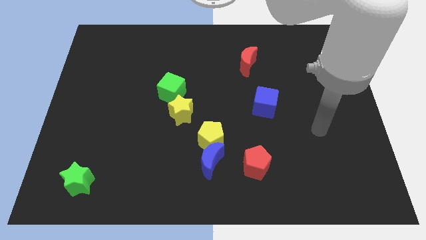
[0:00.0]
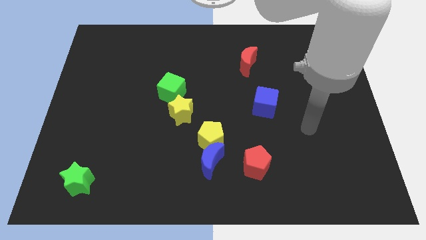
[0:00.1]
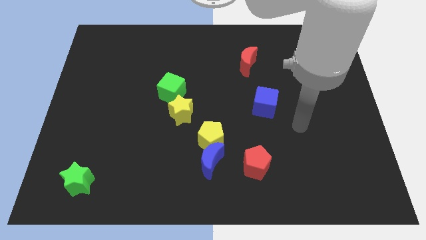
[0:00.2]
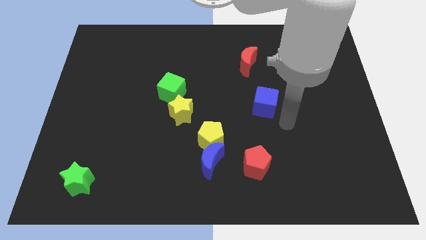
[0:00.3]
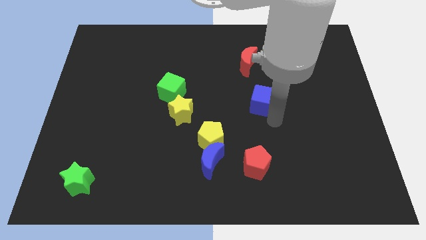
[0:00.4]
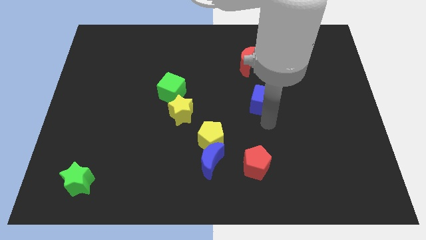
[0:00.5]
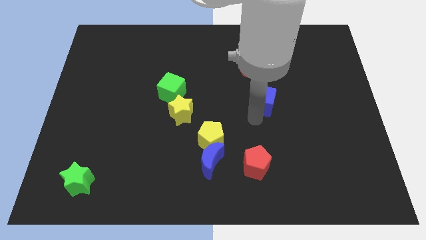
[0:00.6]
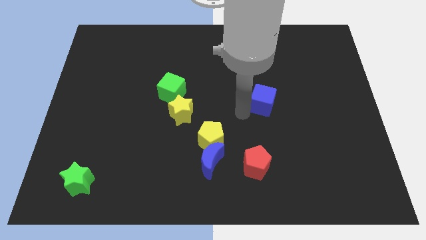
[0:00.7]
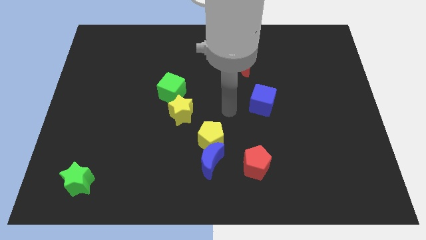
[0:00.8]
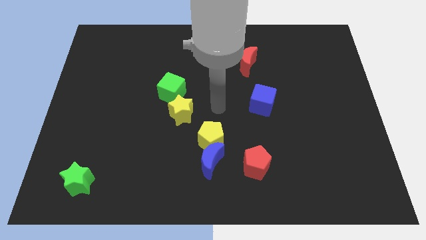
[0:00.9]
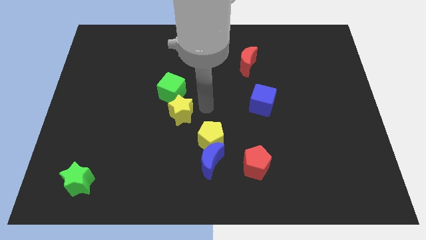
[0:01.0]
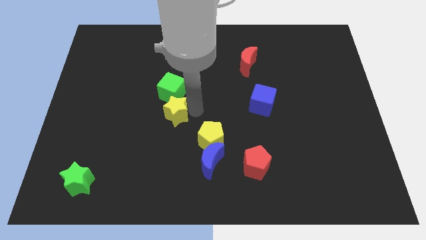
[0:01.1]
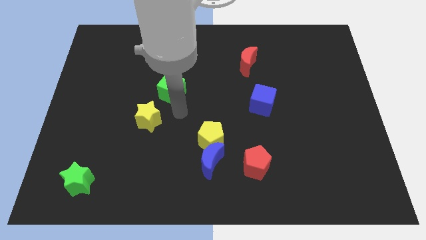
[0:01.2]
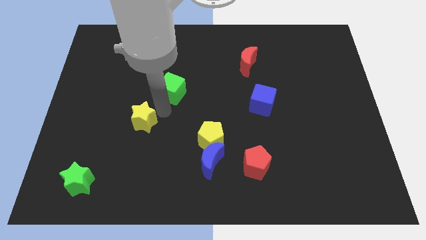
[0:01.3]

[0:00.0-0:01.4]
separate the green cube from the yellow star

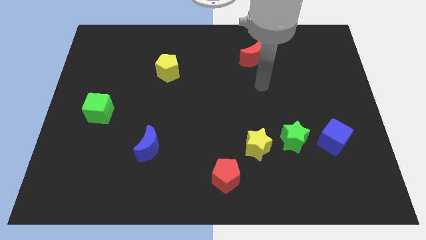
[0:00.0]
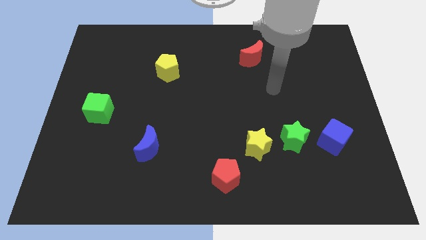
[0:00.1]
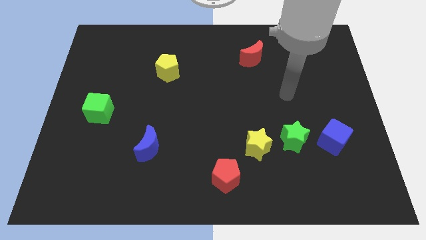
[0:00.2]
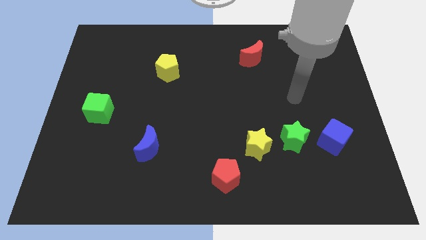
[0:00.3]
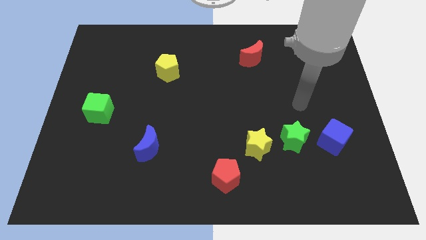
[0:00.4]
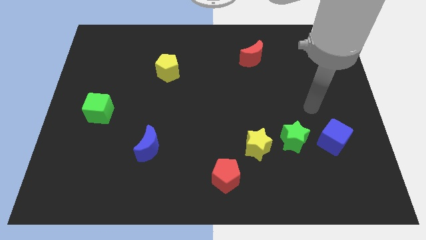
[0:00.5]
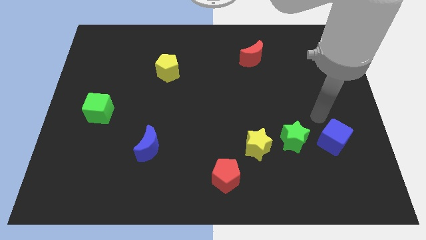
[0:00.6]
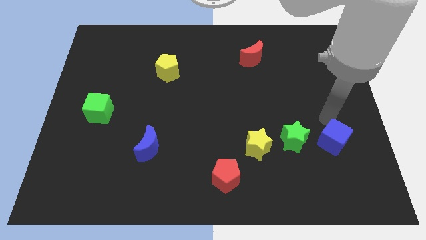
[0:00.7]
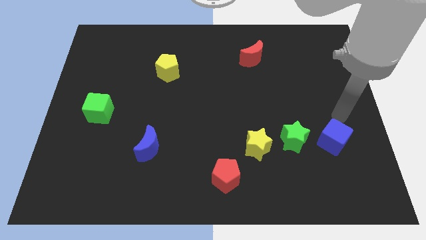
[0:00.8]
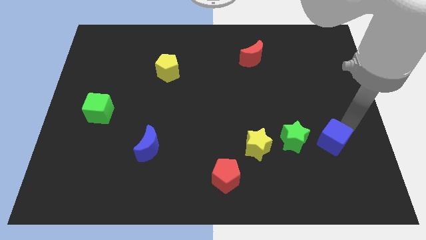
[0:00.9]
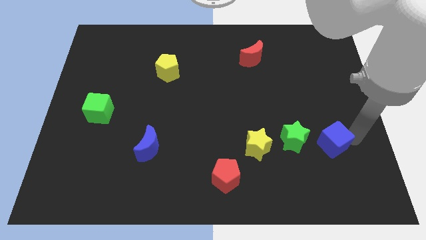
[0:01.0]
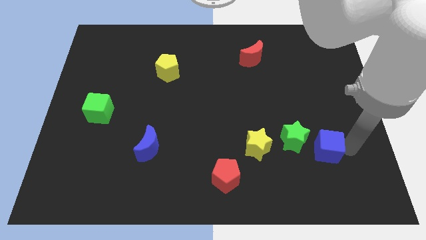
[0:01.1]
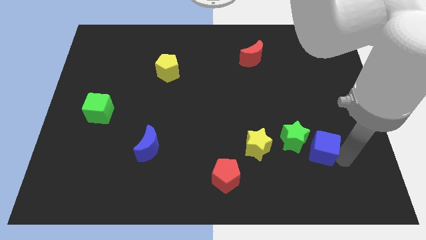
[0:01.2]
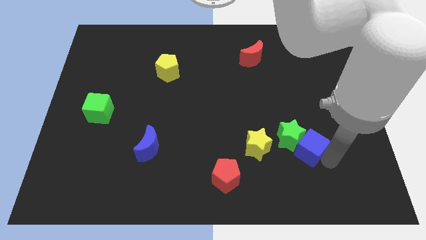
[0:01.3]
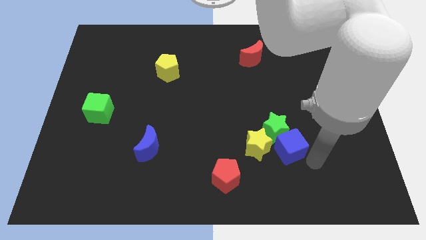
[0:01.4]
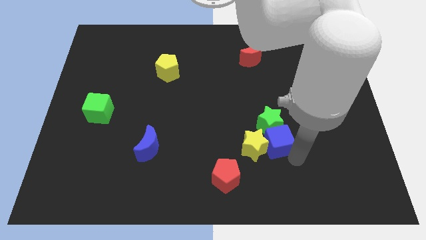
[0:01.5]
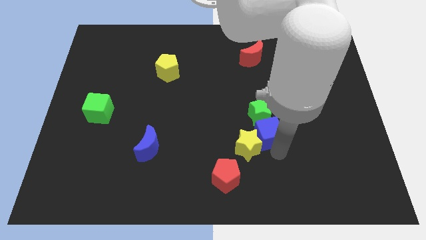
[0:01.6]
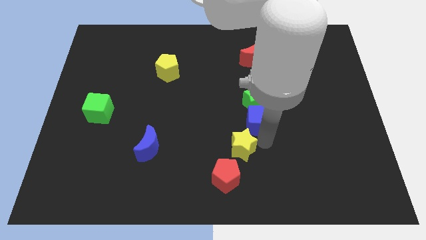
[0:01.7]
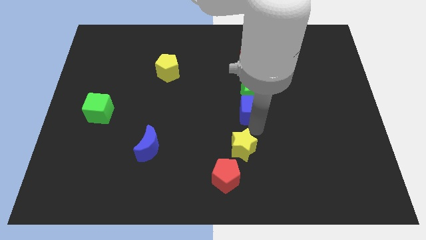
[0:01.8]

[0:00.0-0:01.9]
separate the green star from the yellow star and blue cube

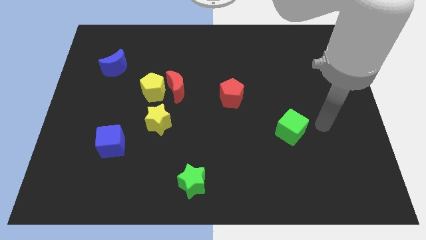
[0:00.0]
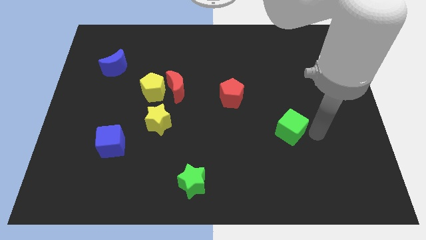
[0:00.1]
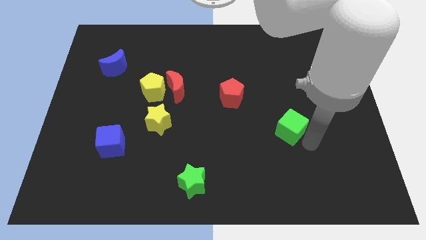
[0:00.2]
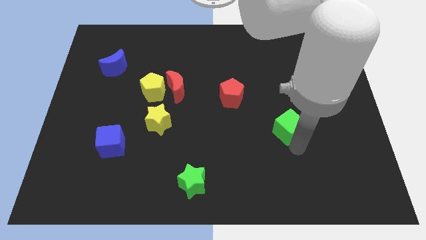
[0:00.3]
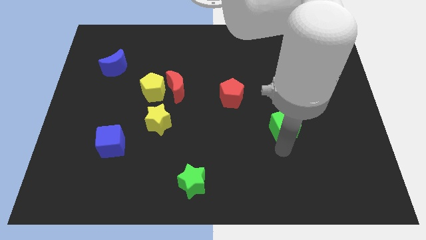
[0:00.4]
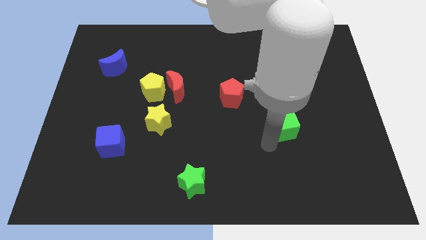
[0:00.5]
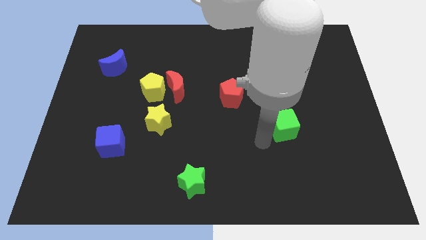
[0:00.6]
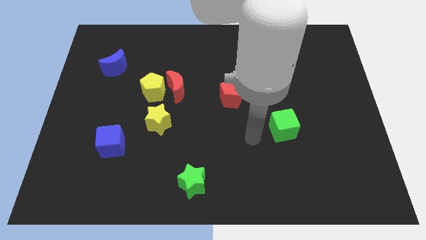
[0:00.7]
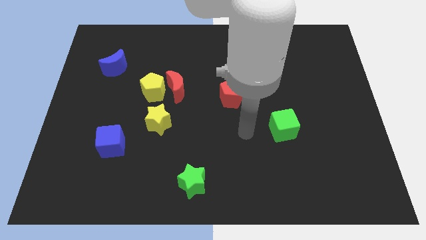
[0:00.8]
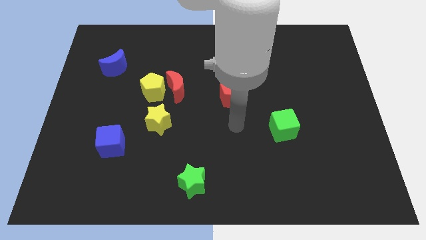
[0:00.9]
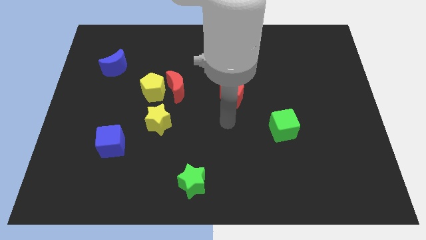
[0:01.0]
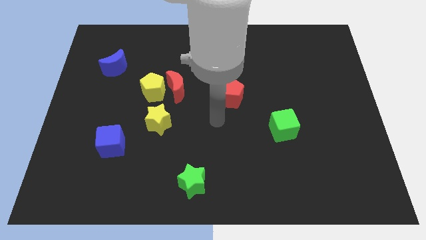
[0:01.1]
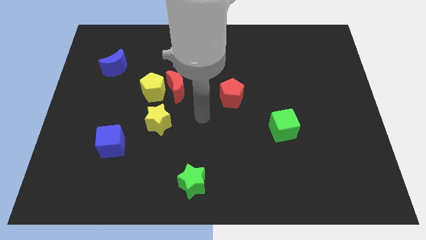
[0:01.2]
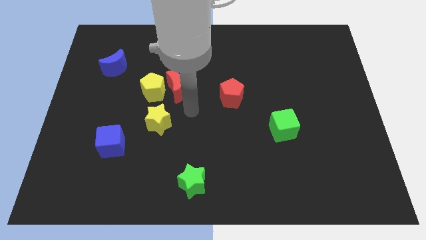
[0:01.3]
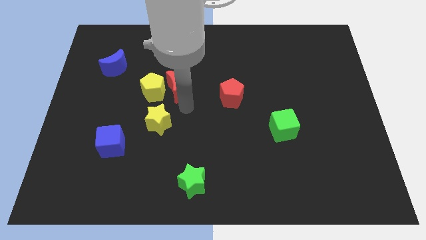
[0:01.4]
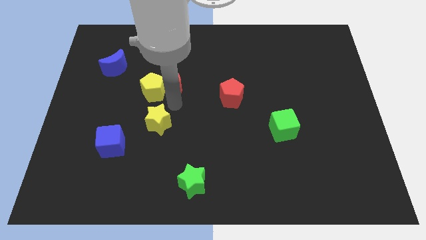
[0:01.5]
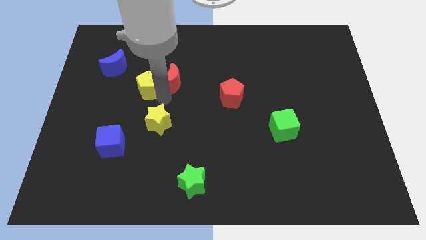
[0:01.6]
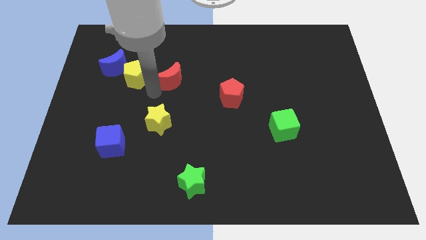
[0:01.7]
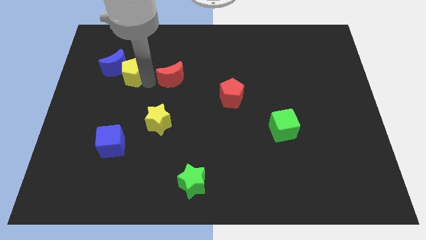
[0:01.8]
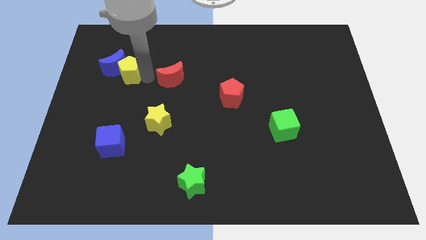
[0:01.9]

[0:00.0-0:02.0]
separate the red moon from the yellow pentagon

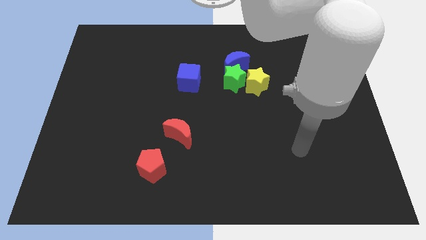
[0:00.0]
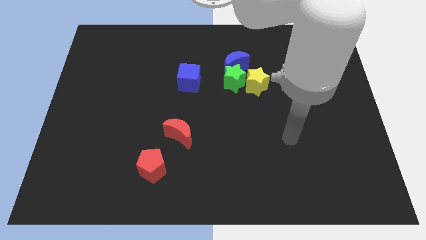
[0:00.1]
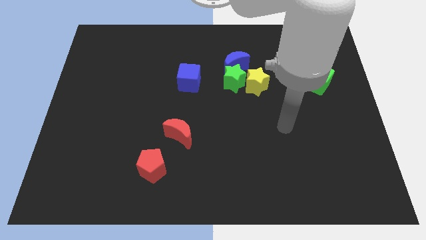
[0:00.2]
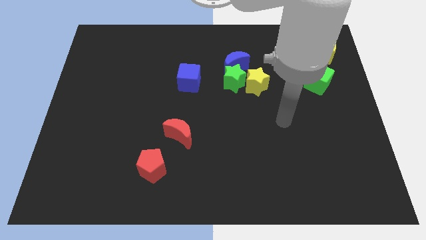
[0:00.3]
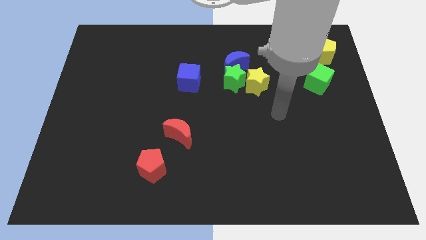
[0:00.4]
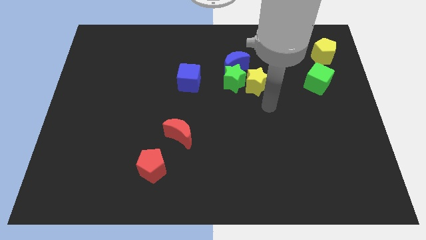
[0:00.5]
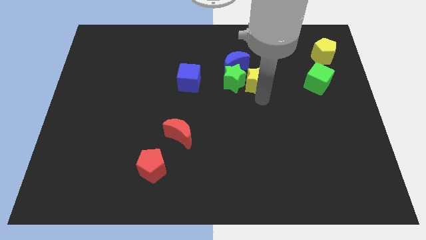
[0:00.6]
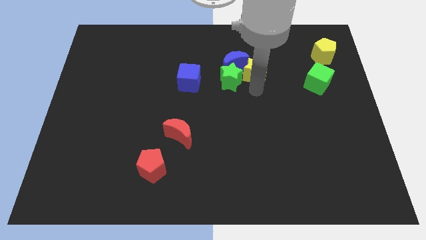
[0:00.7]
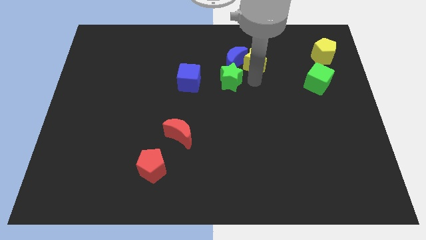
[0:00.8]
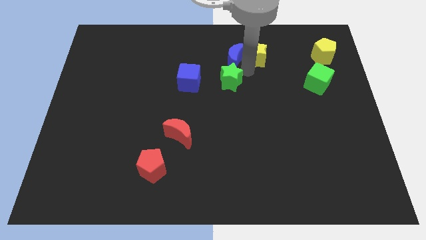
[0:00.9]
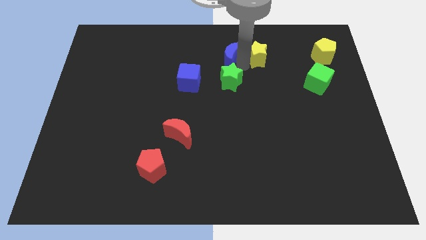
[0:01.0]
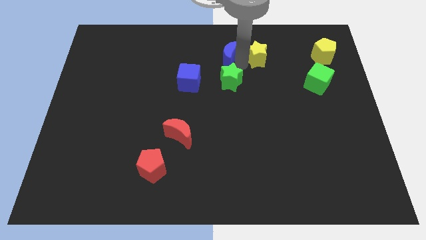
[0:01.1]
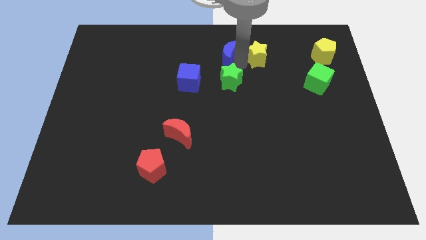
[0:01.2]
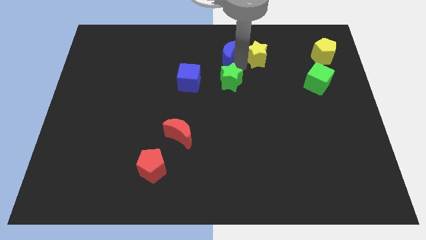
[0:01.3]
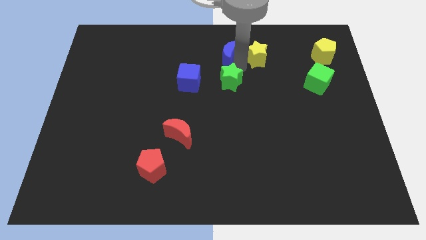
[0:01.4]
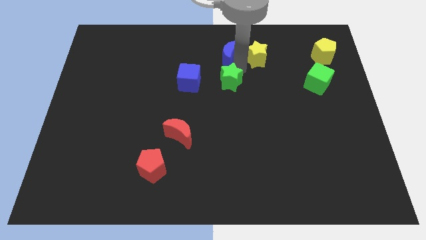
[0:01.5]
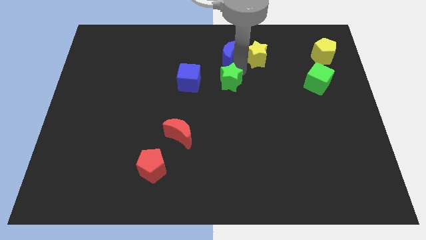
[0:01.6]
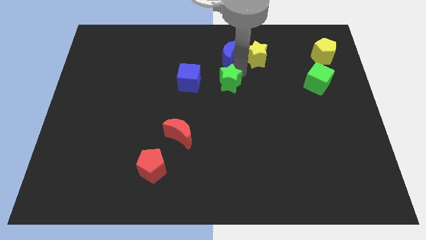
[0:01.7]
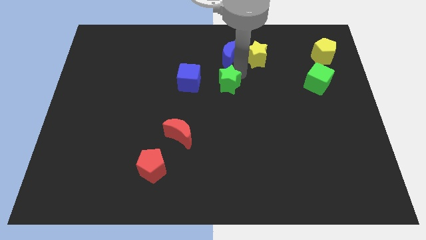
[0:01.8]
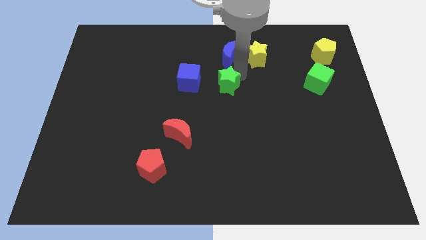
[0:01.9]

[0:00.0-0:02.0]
separate the green star from the blue moon and yellow star

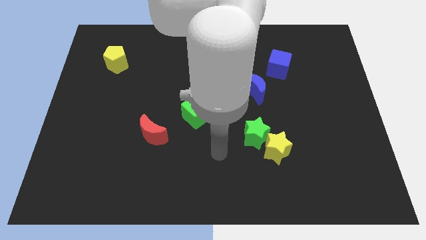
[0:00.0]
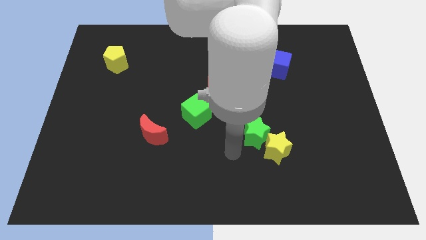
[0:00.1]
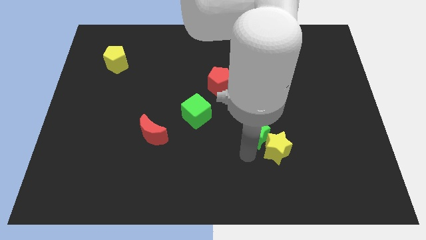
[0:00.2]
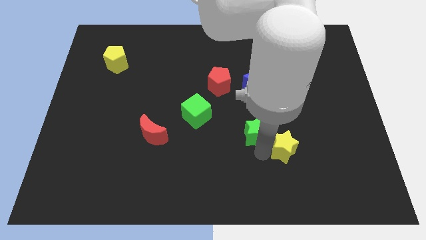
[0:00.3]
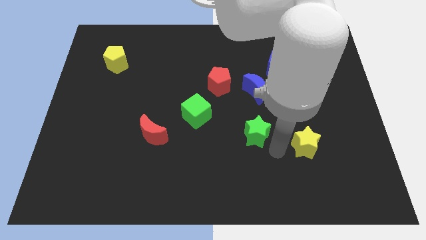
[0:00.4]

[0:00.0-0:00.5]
pull the green star apart from the yellow star

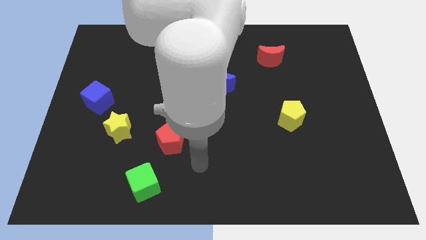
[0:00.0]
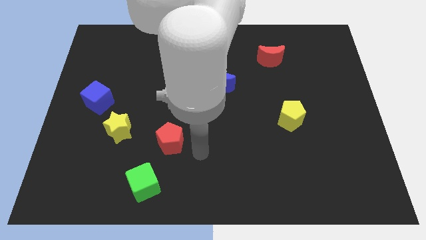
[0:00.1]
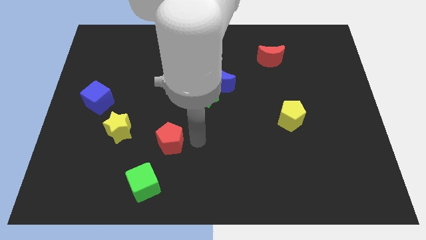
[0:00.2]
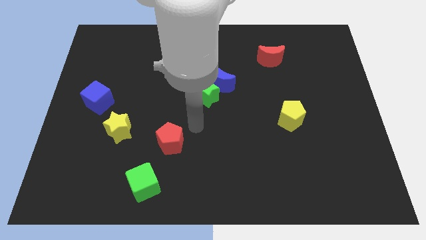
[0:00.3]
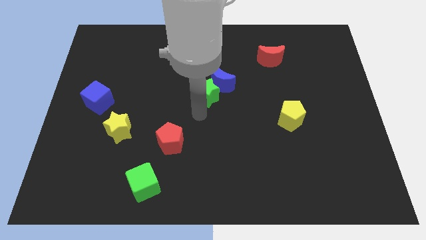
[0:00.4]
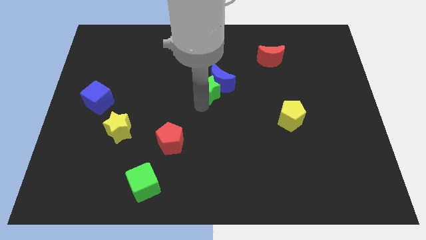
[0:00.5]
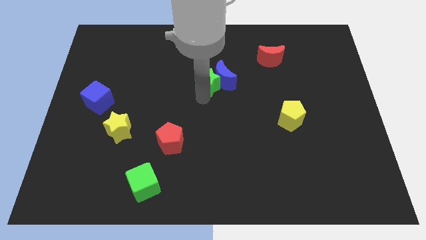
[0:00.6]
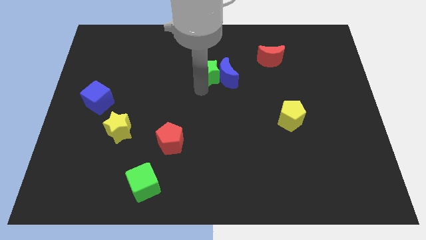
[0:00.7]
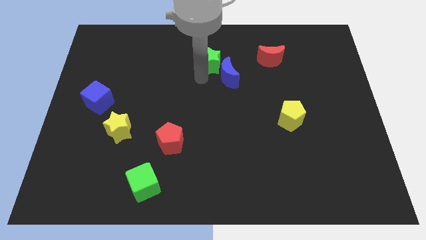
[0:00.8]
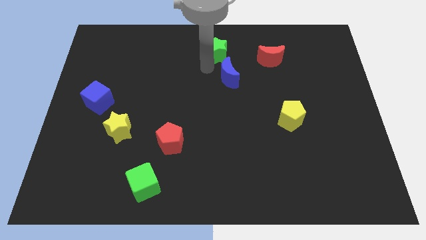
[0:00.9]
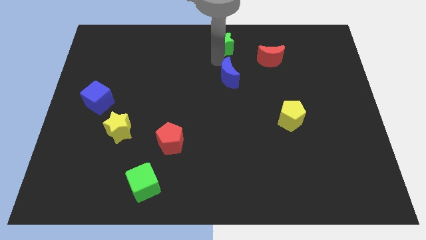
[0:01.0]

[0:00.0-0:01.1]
move the blue moon away from the green star

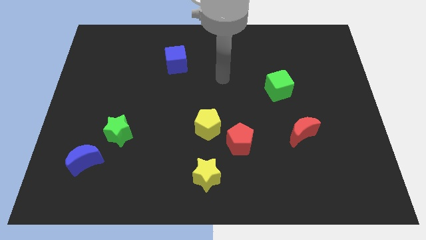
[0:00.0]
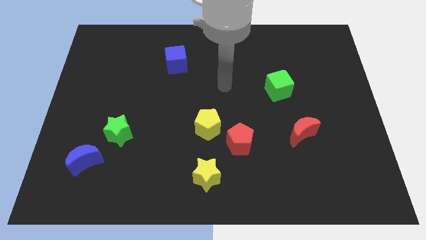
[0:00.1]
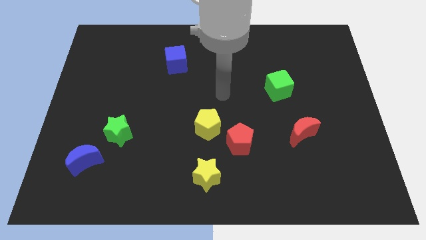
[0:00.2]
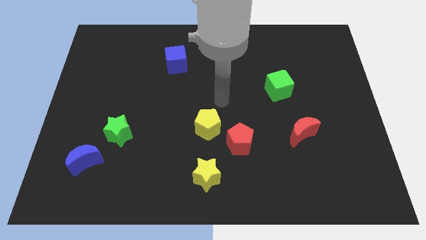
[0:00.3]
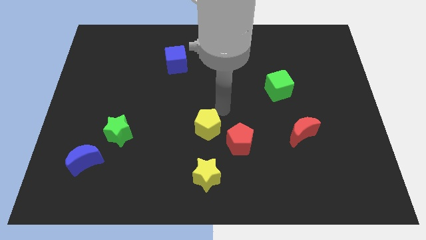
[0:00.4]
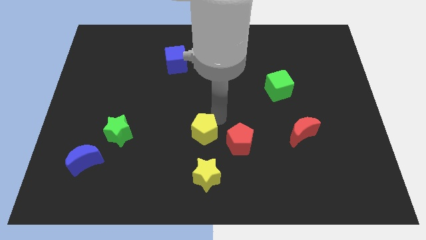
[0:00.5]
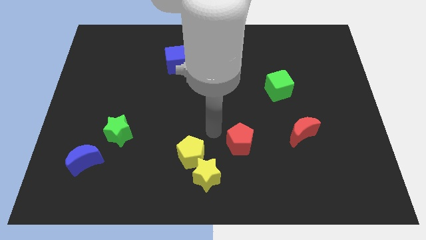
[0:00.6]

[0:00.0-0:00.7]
pull the red pentagon apart from the yellow pentagon
